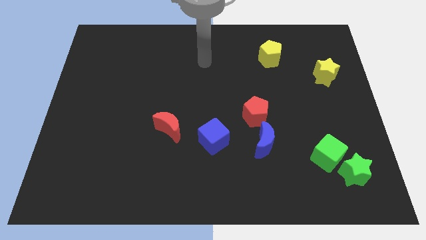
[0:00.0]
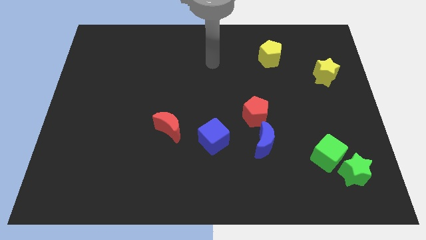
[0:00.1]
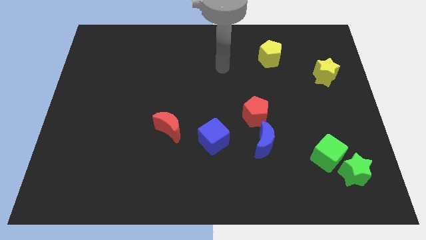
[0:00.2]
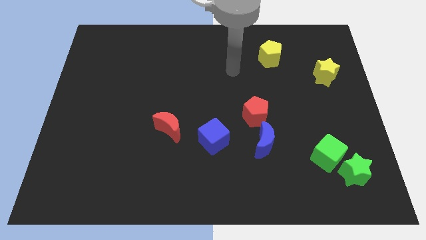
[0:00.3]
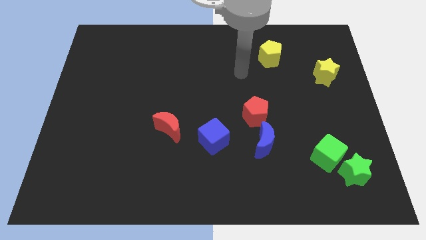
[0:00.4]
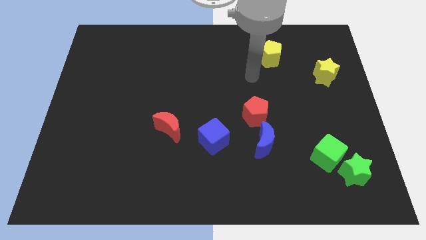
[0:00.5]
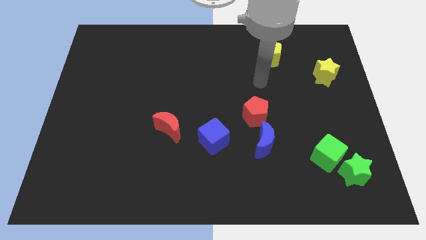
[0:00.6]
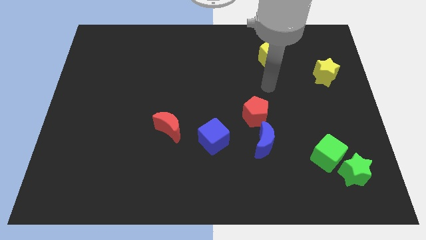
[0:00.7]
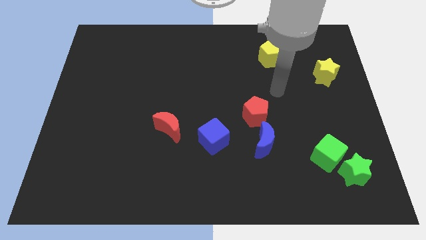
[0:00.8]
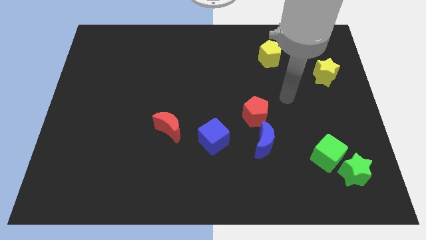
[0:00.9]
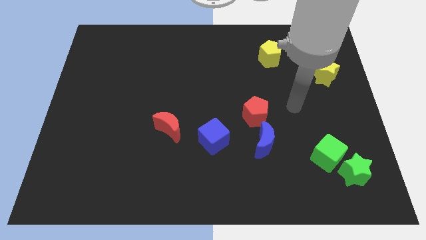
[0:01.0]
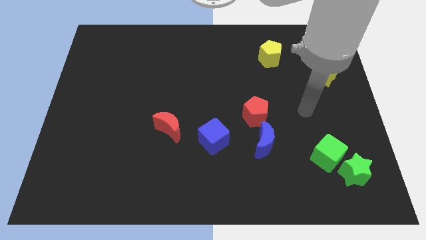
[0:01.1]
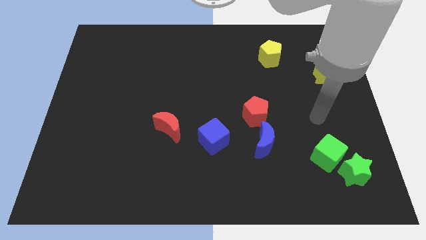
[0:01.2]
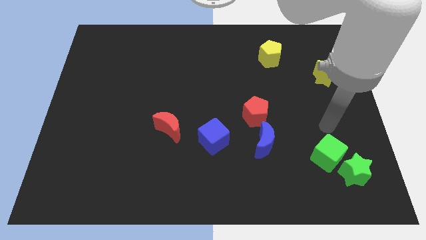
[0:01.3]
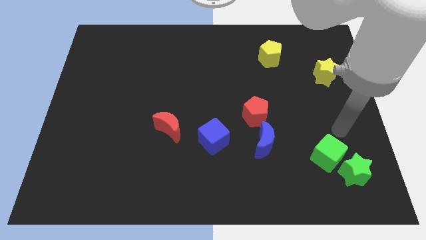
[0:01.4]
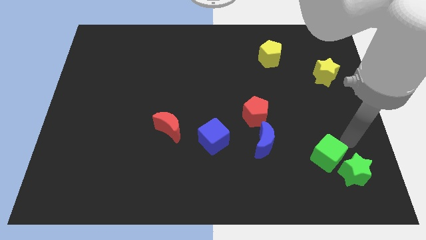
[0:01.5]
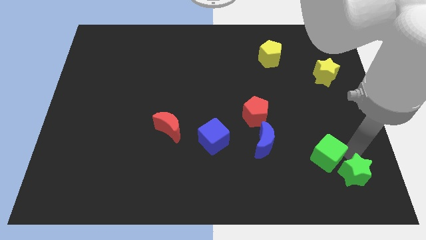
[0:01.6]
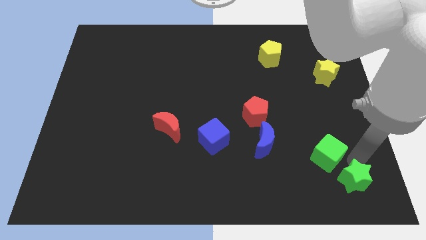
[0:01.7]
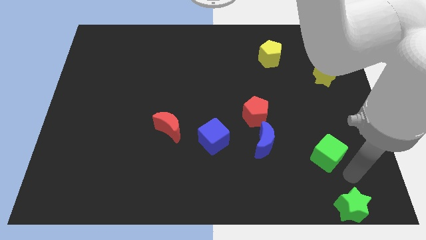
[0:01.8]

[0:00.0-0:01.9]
pull the green cube apart from the green star

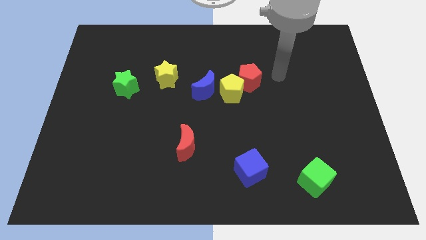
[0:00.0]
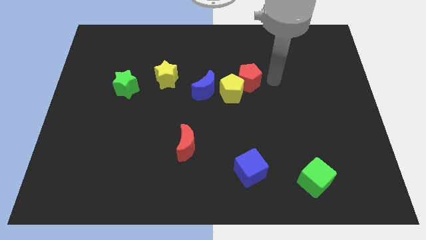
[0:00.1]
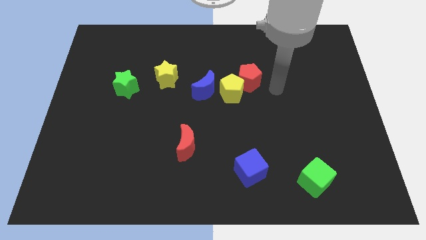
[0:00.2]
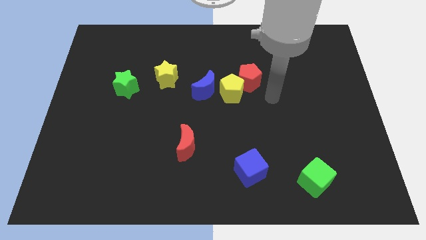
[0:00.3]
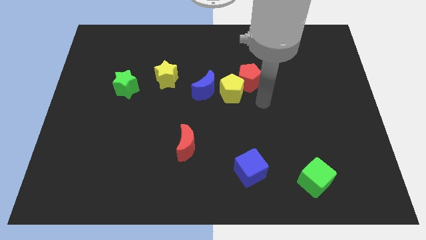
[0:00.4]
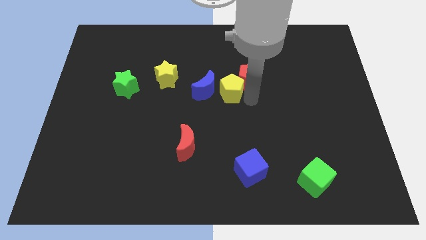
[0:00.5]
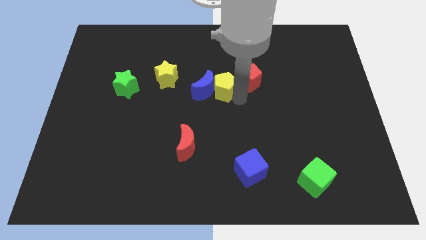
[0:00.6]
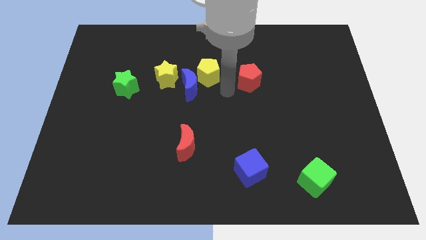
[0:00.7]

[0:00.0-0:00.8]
move the red pentagon away from the yellow pentagon

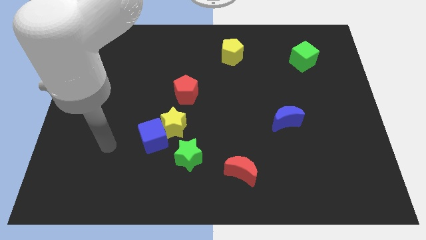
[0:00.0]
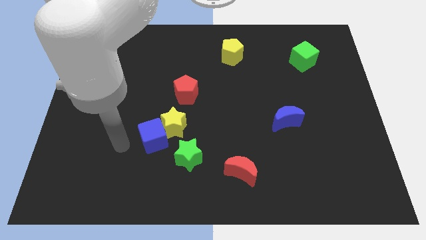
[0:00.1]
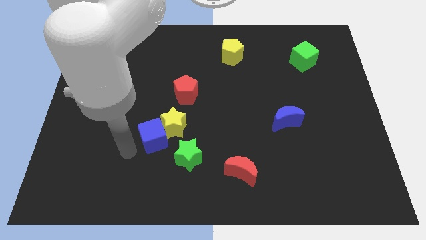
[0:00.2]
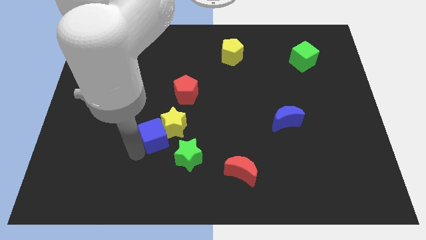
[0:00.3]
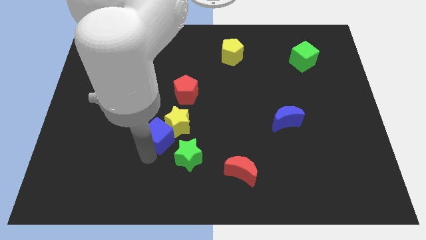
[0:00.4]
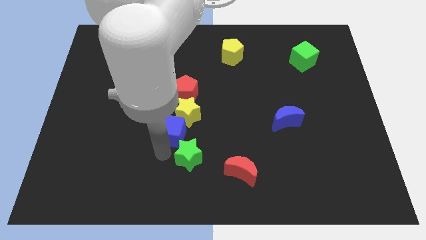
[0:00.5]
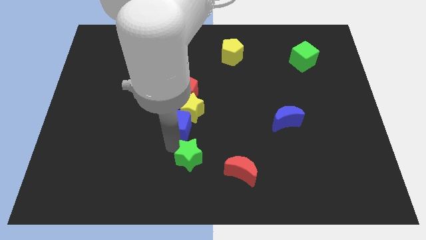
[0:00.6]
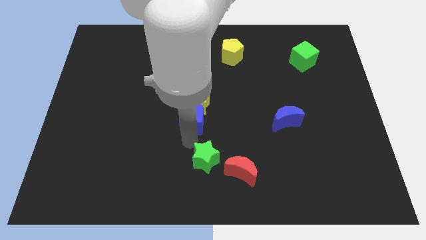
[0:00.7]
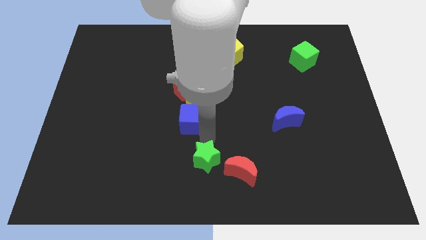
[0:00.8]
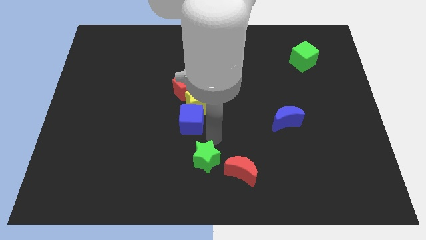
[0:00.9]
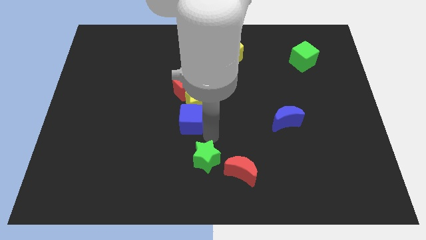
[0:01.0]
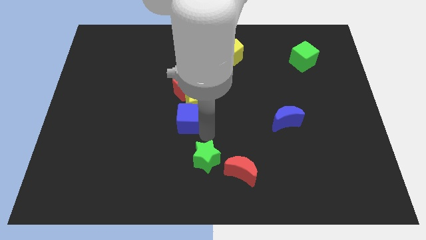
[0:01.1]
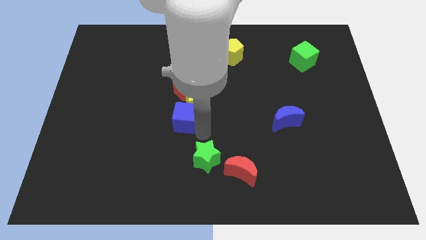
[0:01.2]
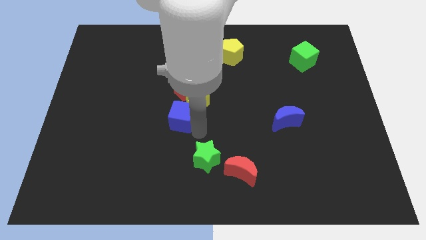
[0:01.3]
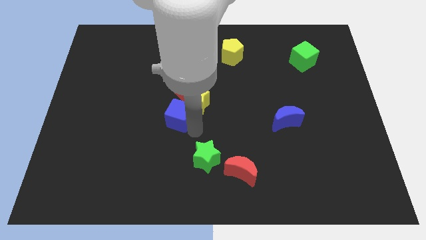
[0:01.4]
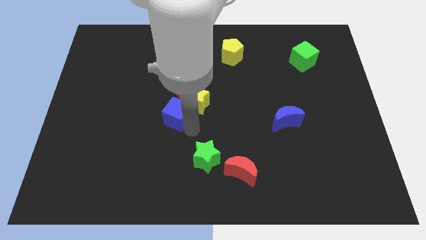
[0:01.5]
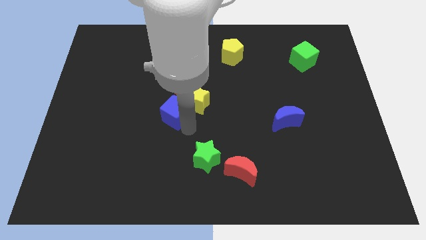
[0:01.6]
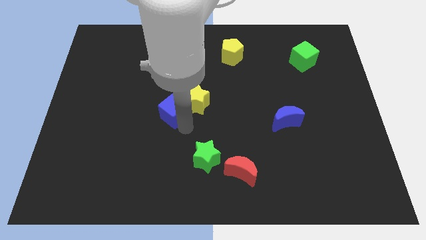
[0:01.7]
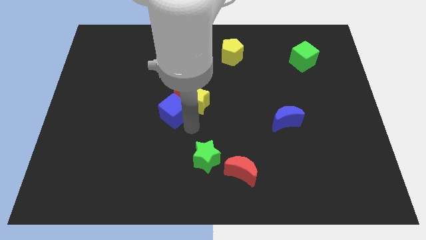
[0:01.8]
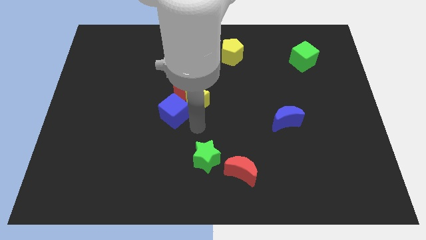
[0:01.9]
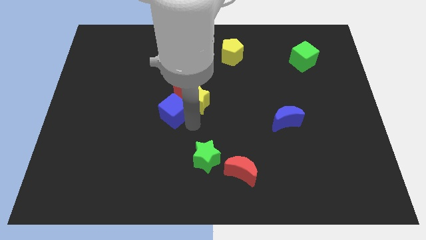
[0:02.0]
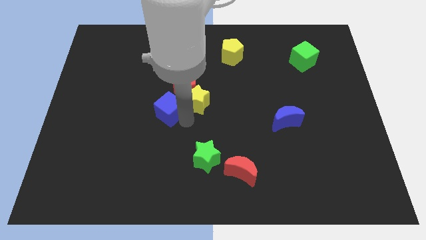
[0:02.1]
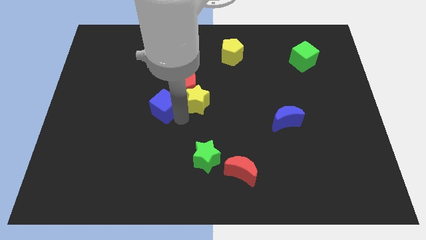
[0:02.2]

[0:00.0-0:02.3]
separate the blue cube from the yellow star and green star

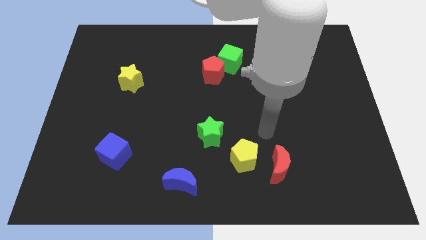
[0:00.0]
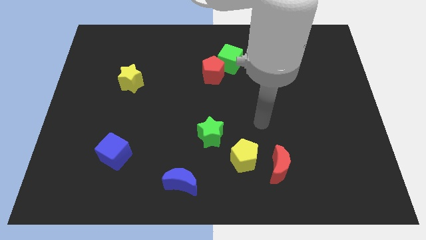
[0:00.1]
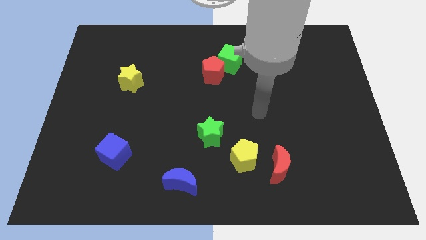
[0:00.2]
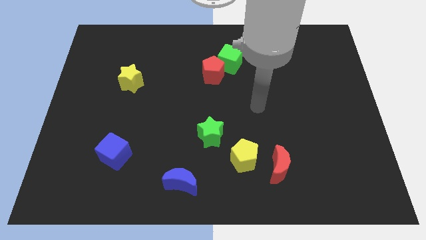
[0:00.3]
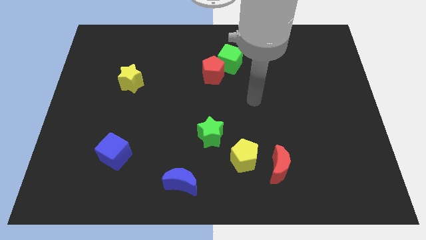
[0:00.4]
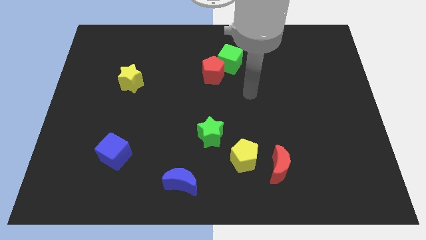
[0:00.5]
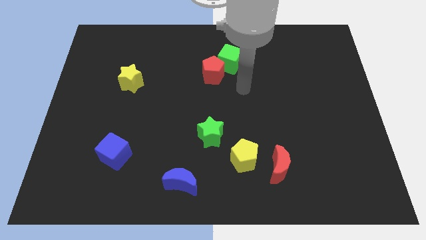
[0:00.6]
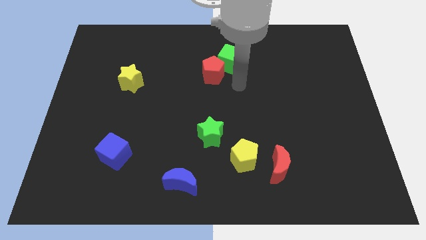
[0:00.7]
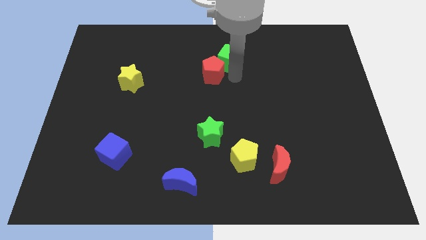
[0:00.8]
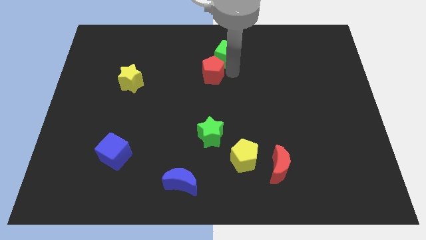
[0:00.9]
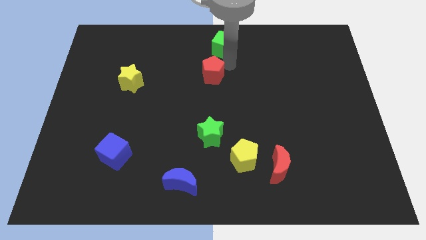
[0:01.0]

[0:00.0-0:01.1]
move the red pentagon away from the green cube

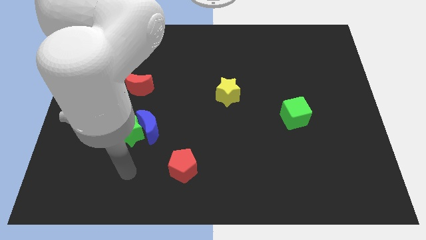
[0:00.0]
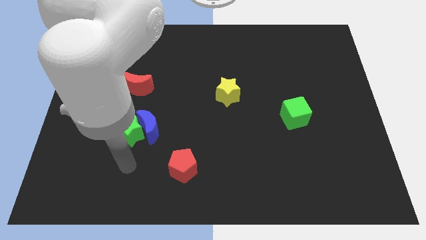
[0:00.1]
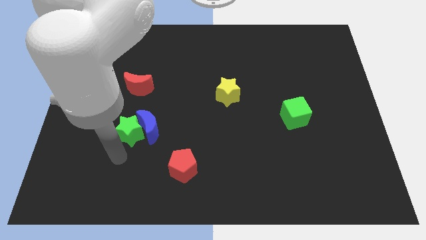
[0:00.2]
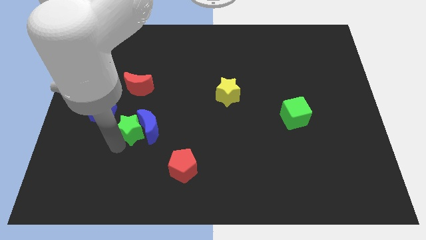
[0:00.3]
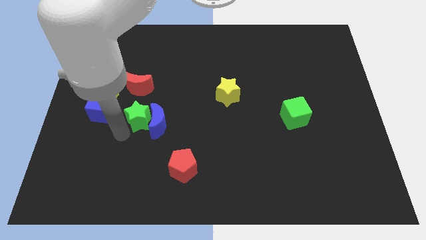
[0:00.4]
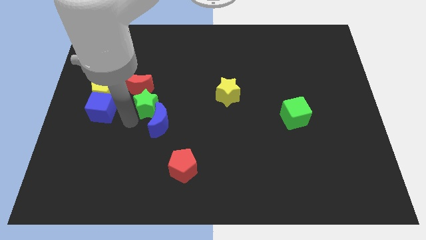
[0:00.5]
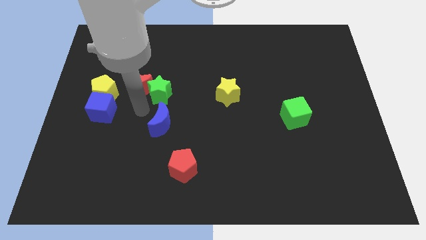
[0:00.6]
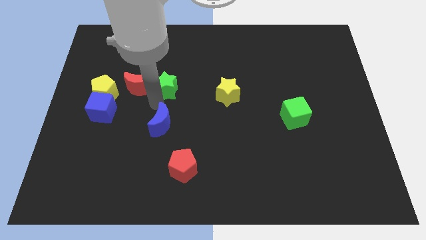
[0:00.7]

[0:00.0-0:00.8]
pull the blue moon apart from the green star

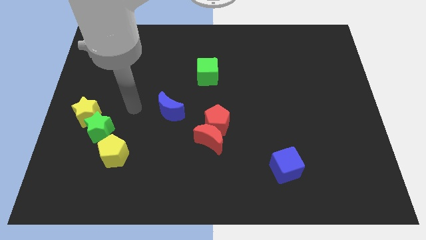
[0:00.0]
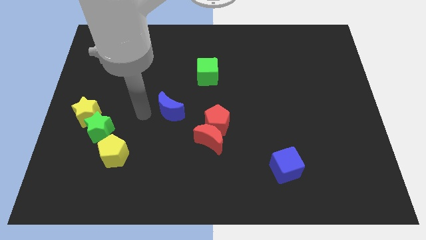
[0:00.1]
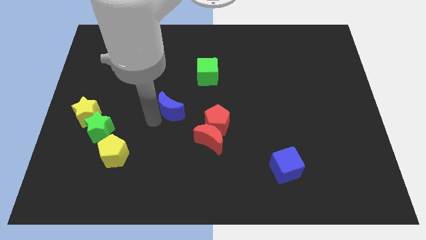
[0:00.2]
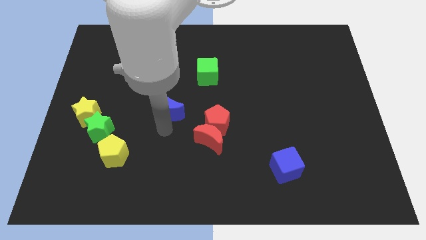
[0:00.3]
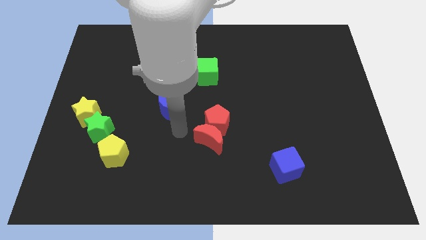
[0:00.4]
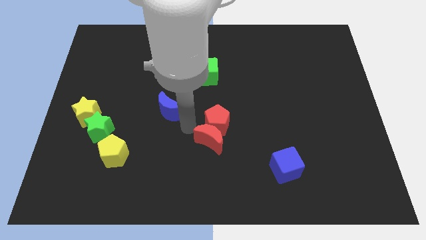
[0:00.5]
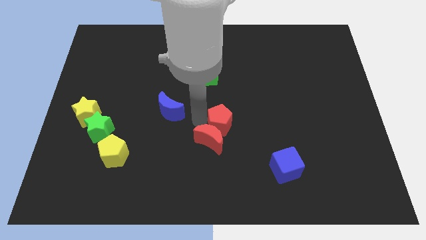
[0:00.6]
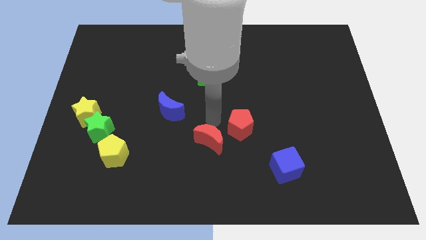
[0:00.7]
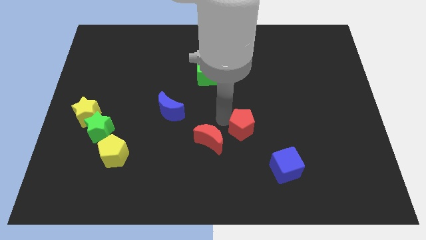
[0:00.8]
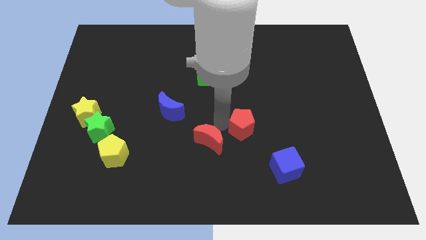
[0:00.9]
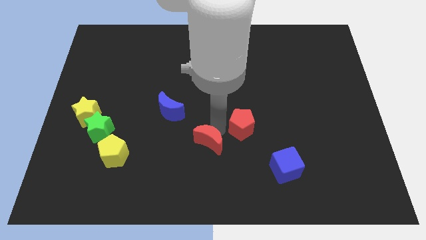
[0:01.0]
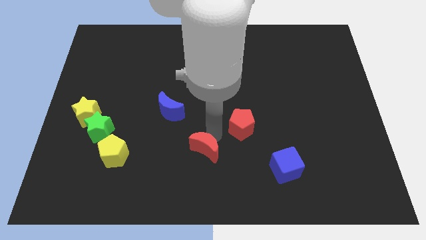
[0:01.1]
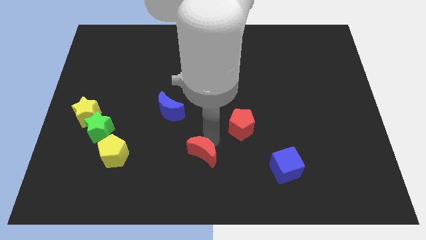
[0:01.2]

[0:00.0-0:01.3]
separate the red moon from the red pentagon

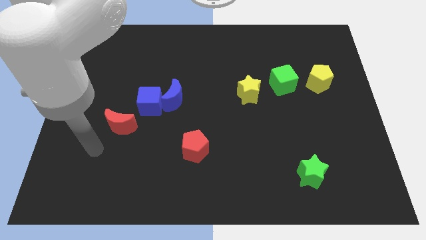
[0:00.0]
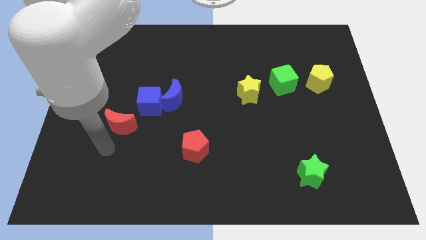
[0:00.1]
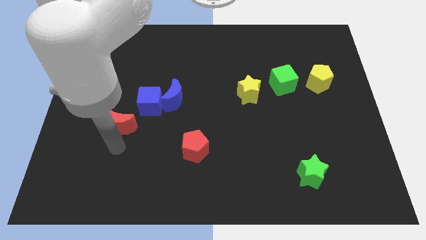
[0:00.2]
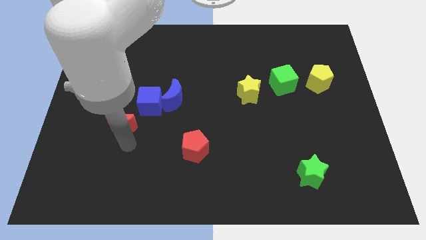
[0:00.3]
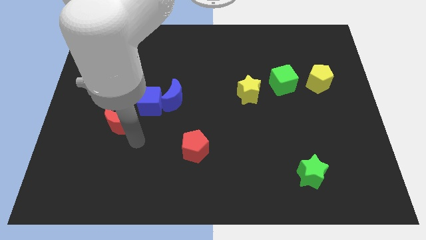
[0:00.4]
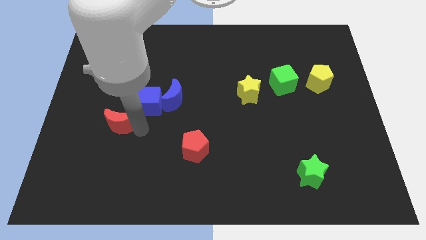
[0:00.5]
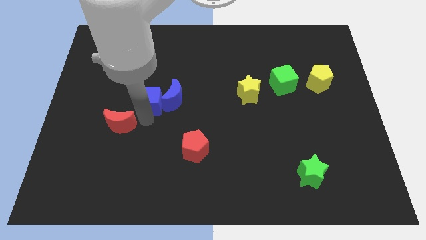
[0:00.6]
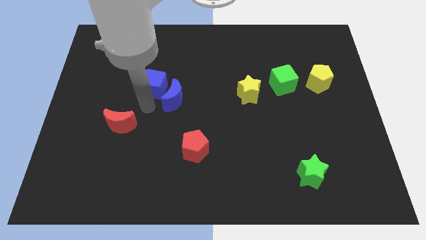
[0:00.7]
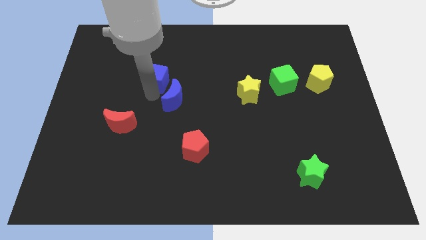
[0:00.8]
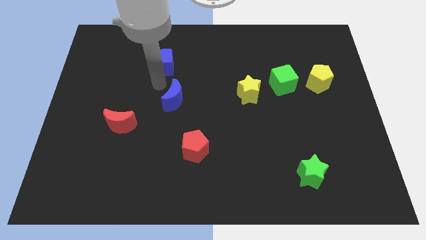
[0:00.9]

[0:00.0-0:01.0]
move the blue moon away from the blue cube

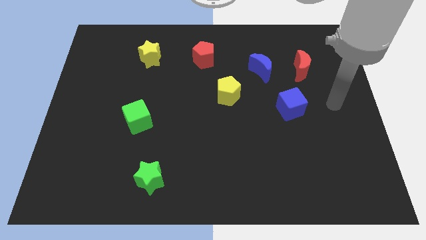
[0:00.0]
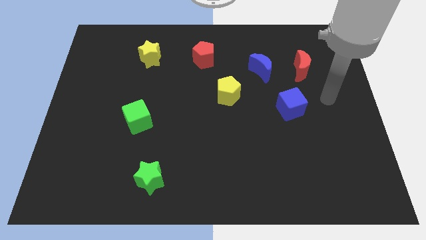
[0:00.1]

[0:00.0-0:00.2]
pull the red moon apart from the blue moon
